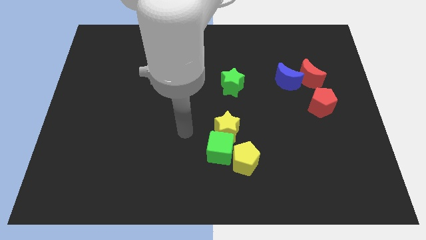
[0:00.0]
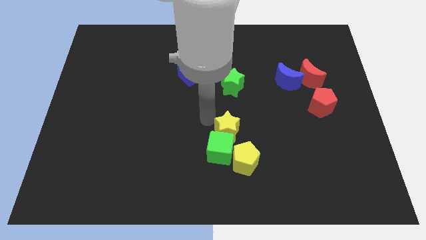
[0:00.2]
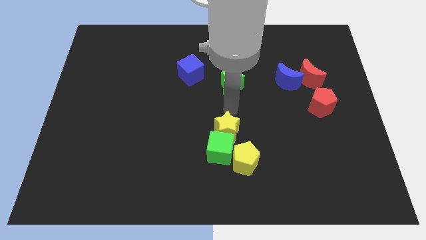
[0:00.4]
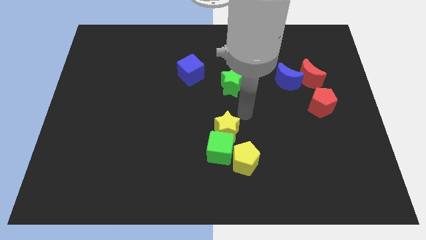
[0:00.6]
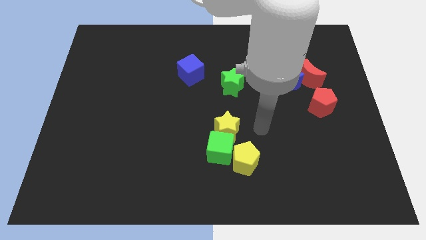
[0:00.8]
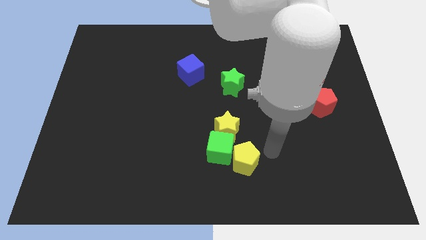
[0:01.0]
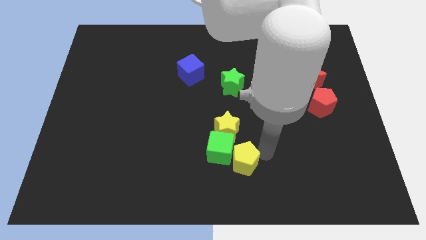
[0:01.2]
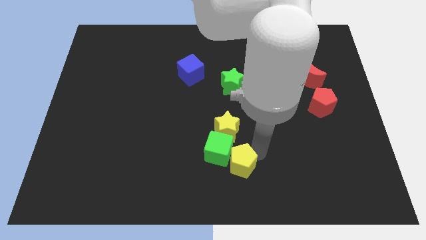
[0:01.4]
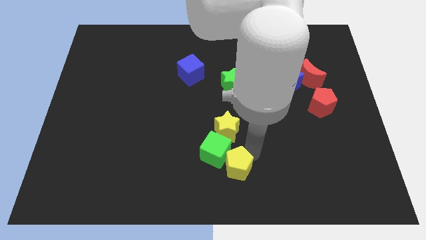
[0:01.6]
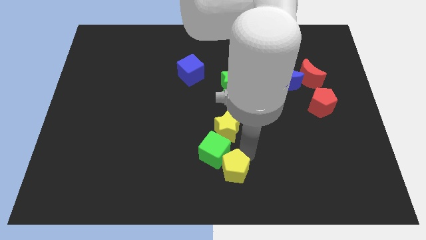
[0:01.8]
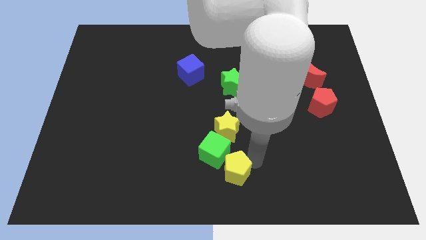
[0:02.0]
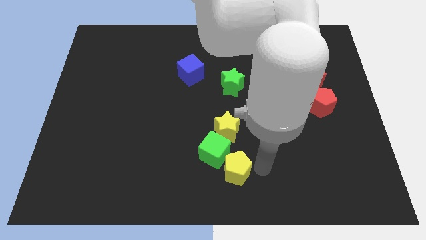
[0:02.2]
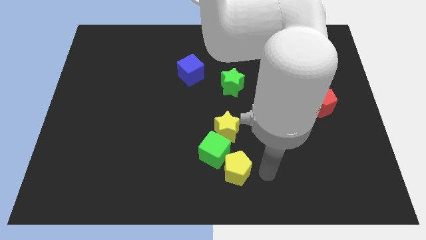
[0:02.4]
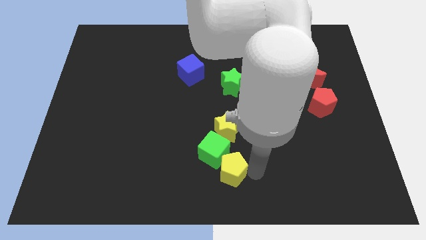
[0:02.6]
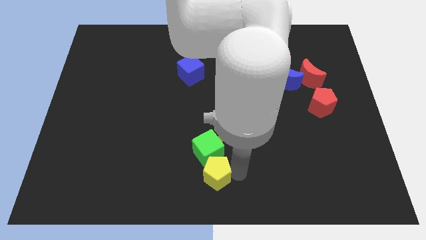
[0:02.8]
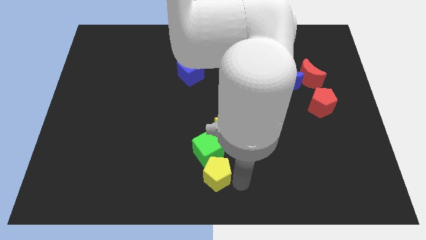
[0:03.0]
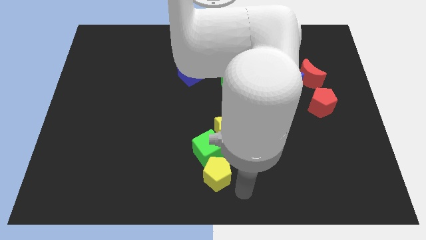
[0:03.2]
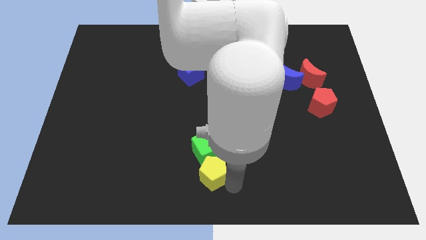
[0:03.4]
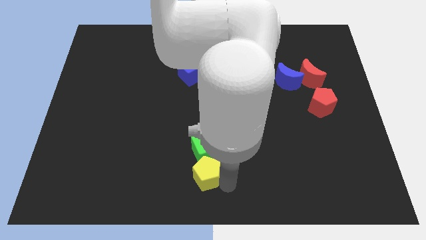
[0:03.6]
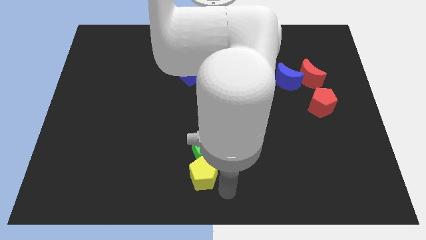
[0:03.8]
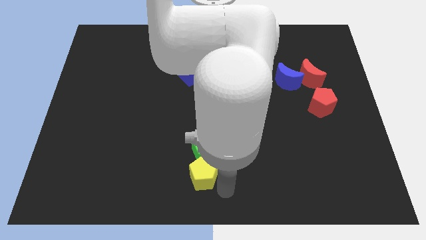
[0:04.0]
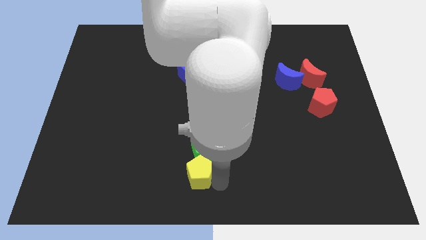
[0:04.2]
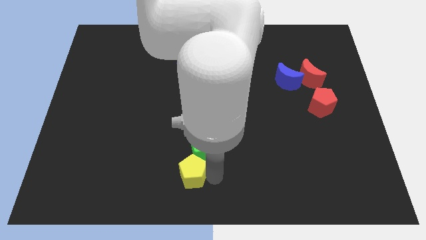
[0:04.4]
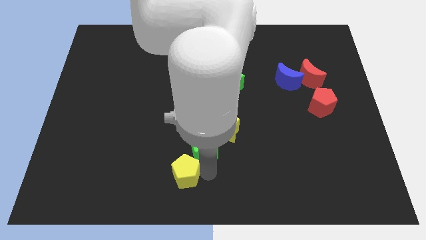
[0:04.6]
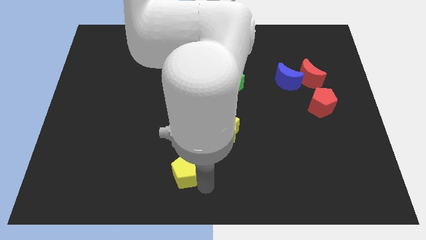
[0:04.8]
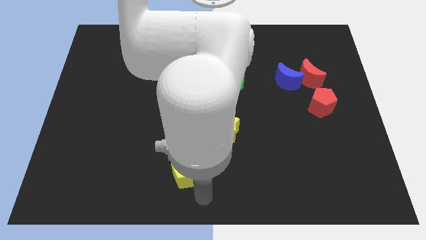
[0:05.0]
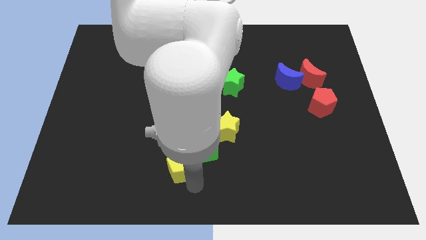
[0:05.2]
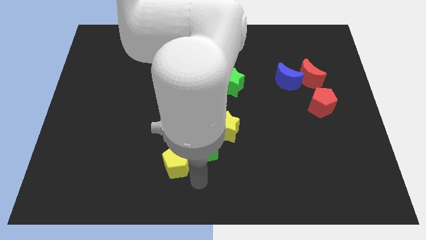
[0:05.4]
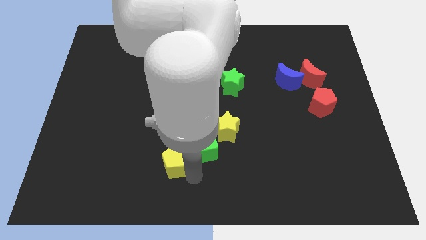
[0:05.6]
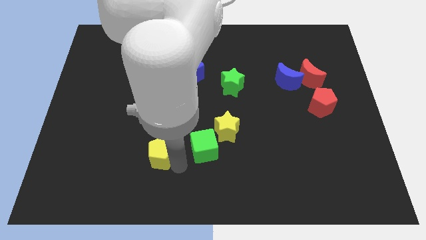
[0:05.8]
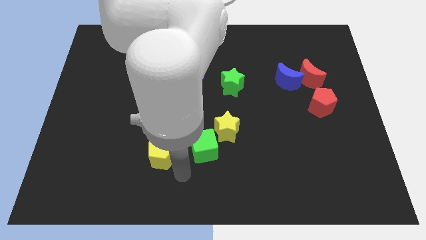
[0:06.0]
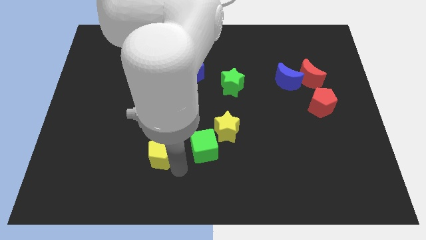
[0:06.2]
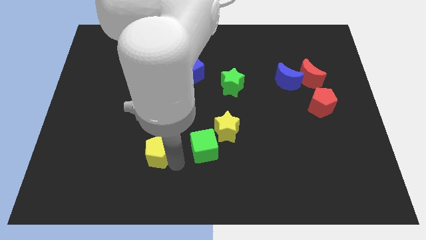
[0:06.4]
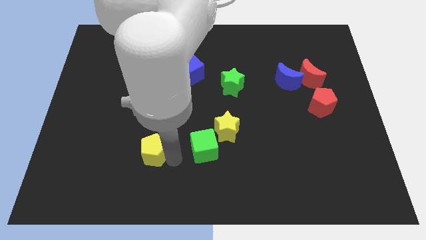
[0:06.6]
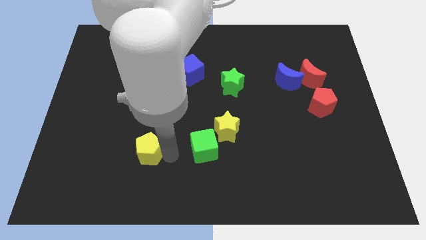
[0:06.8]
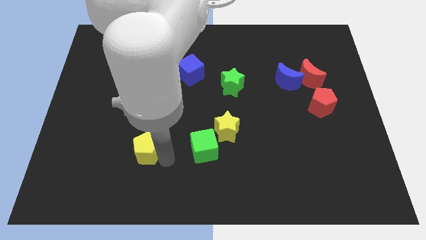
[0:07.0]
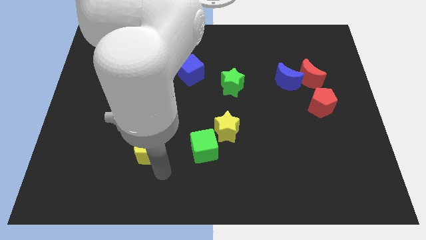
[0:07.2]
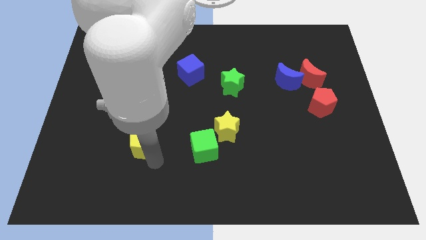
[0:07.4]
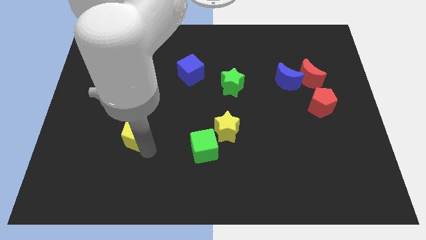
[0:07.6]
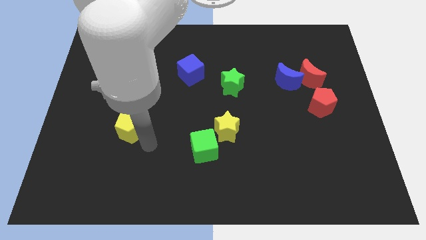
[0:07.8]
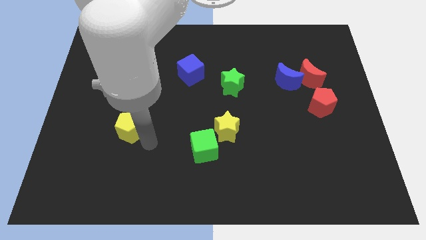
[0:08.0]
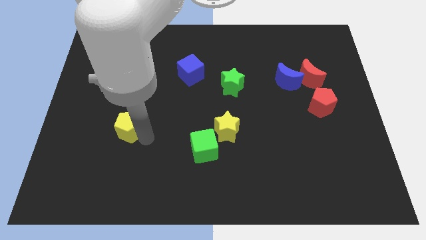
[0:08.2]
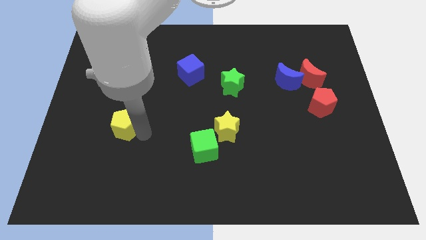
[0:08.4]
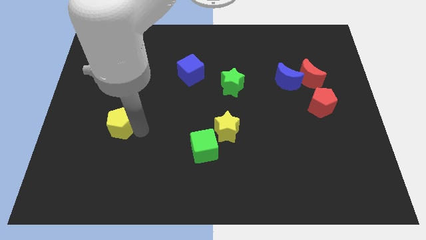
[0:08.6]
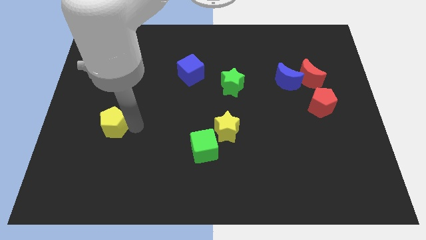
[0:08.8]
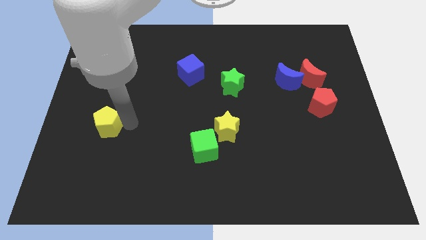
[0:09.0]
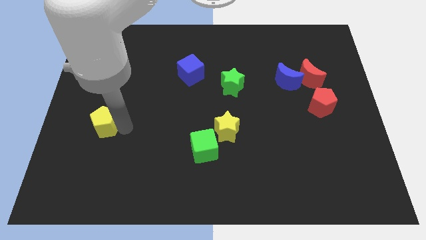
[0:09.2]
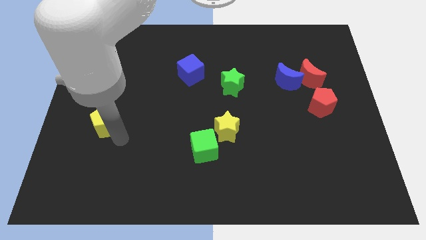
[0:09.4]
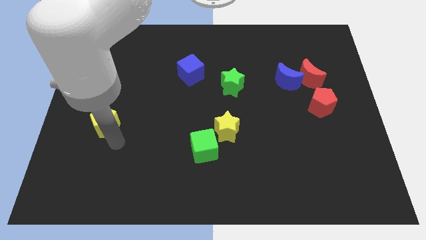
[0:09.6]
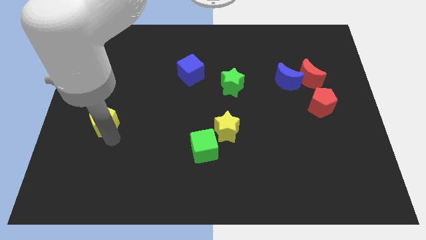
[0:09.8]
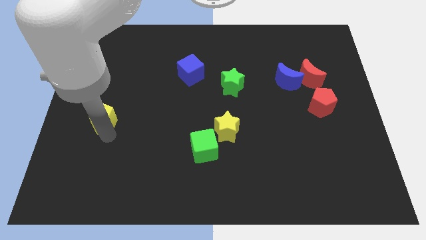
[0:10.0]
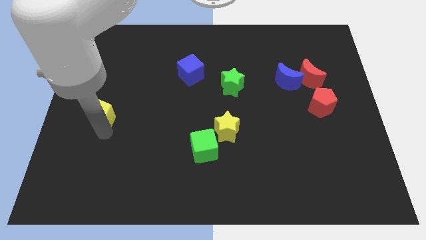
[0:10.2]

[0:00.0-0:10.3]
slide the yellow pentagon to the left side

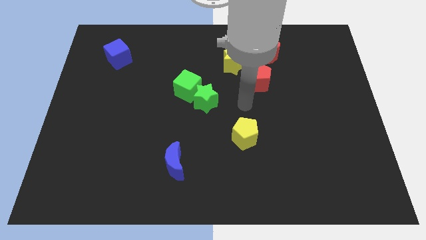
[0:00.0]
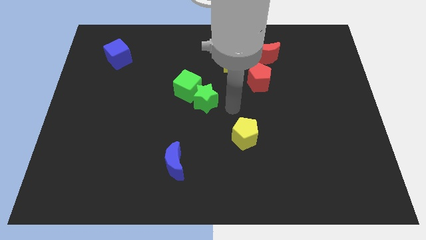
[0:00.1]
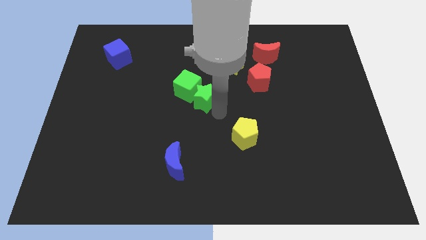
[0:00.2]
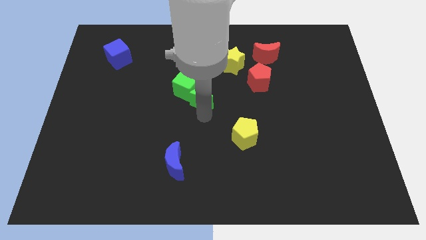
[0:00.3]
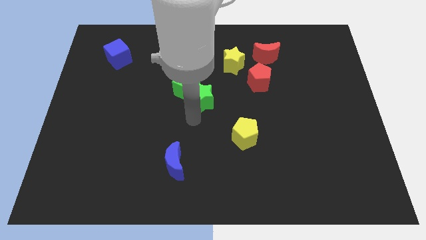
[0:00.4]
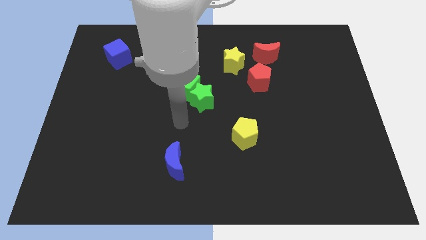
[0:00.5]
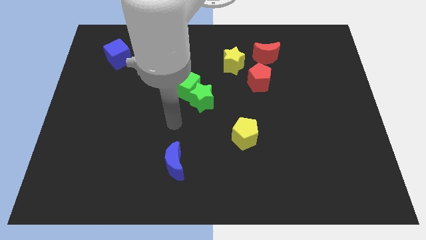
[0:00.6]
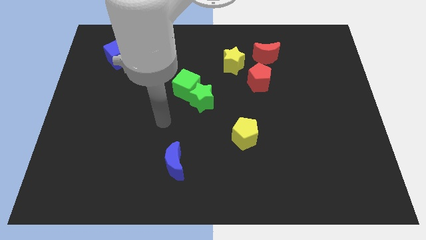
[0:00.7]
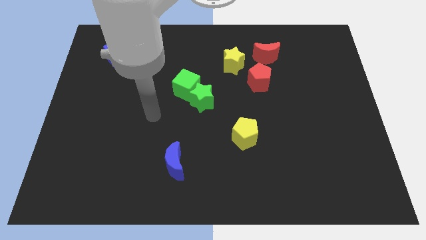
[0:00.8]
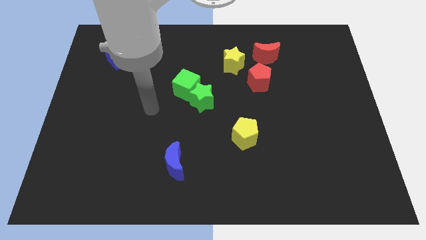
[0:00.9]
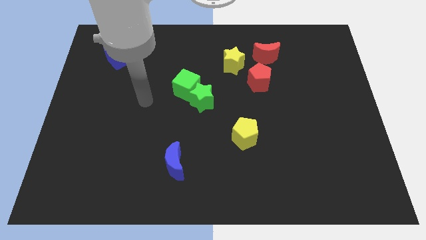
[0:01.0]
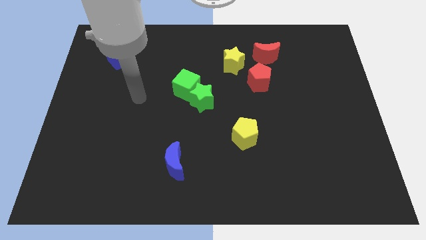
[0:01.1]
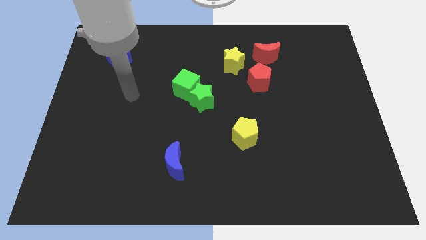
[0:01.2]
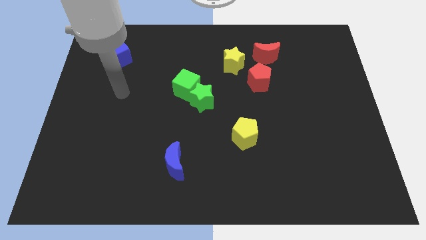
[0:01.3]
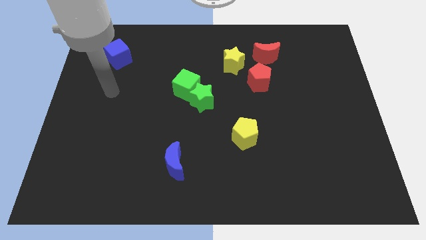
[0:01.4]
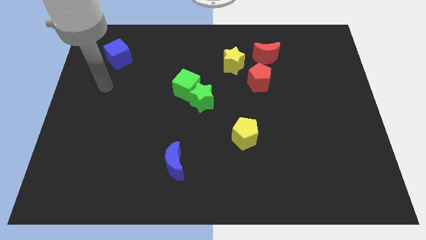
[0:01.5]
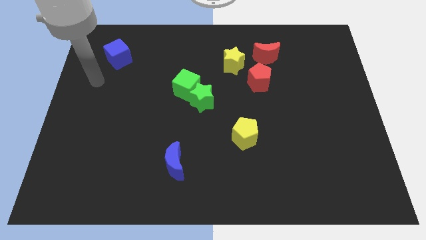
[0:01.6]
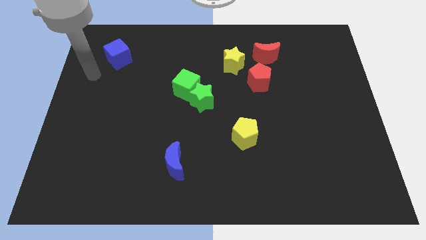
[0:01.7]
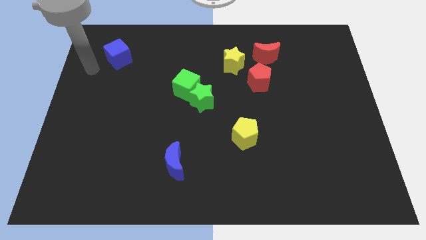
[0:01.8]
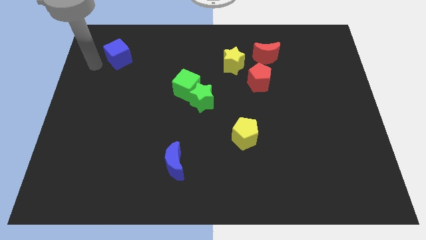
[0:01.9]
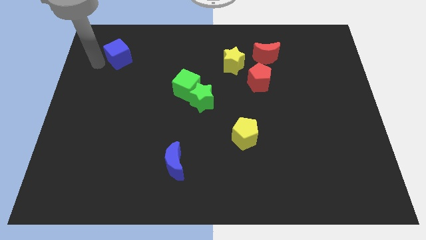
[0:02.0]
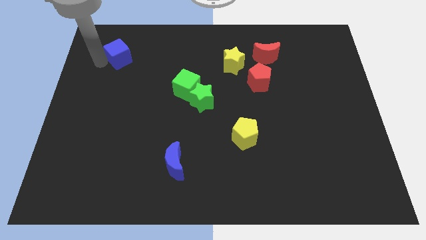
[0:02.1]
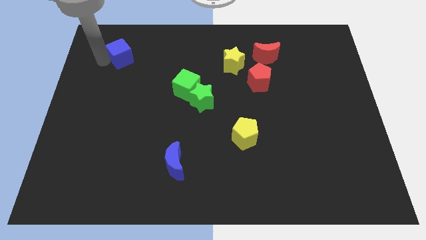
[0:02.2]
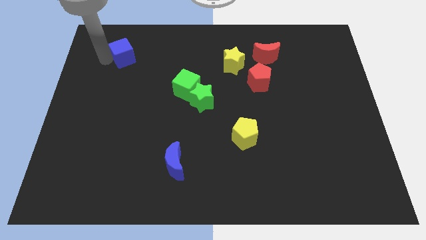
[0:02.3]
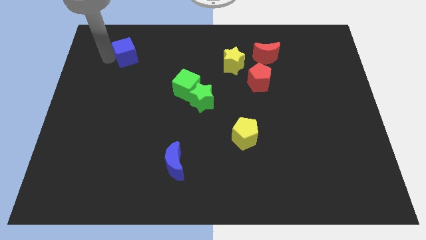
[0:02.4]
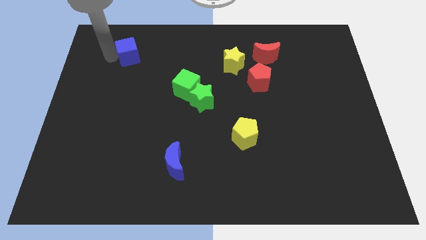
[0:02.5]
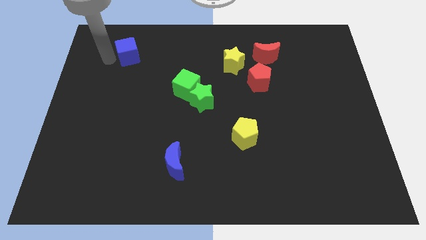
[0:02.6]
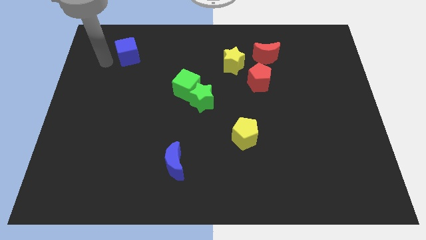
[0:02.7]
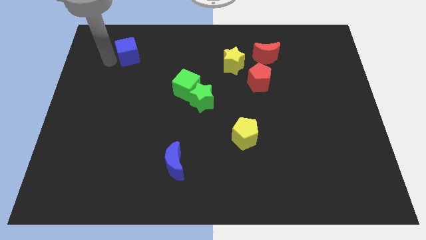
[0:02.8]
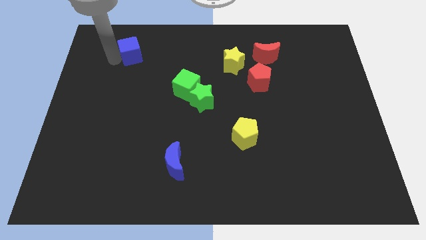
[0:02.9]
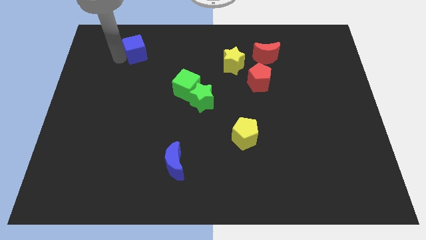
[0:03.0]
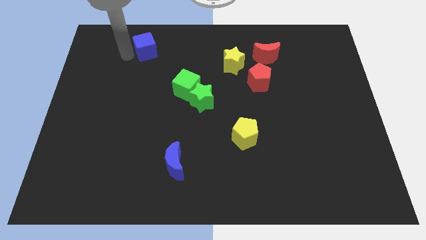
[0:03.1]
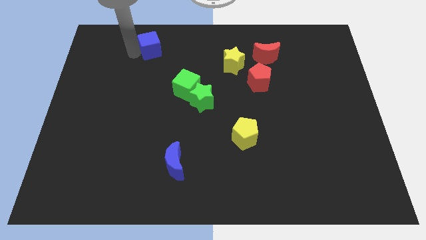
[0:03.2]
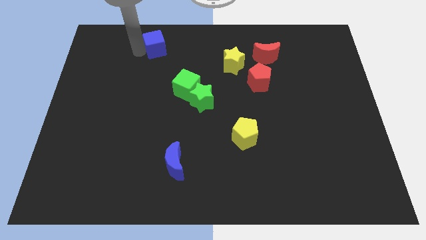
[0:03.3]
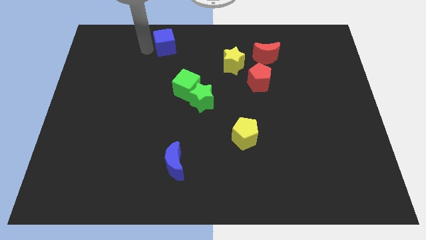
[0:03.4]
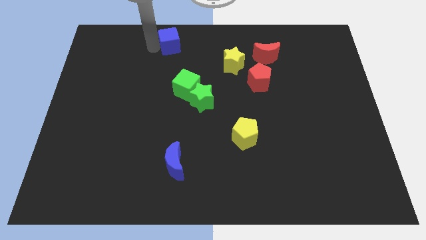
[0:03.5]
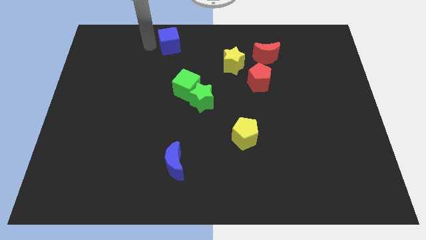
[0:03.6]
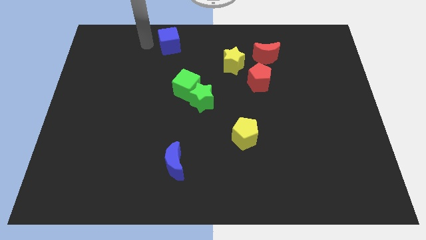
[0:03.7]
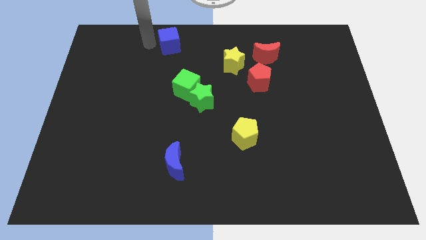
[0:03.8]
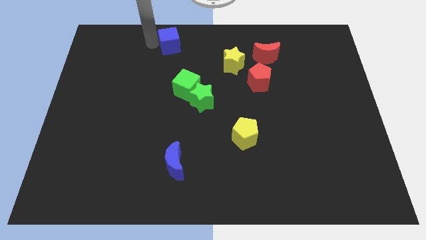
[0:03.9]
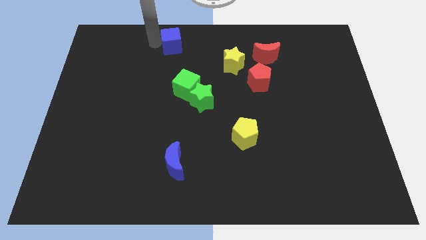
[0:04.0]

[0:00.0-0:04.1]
move the blue cube to the top
